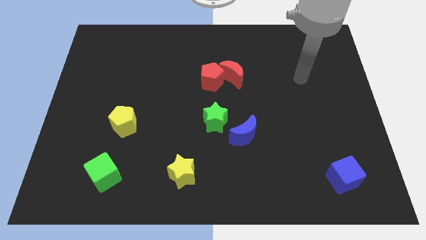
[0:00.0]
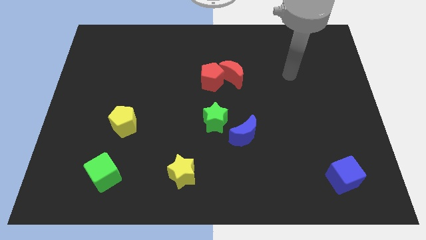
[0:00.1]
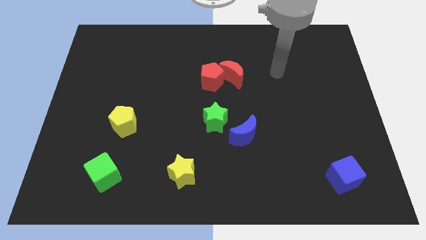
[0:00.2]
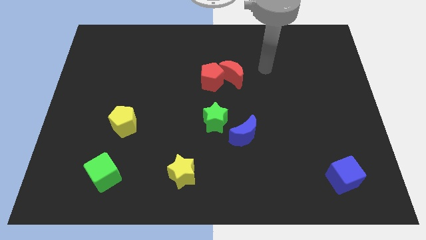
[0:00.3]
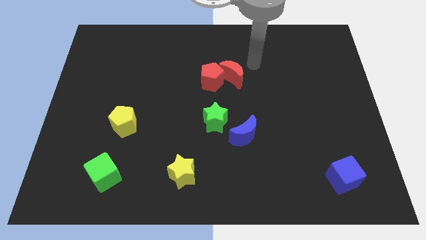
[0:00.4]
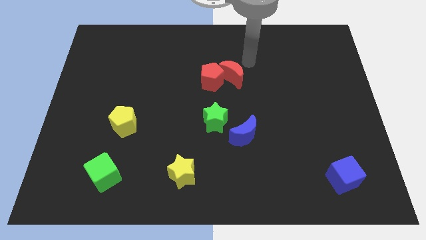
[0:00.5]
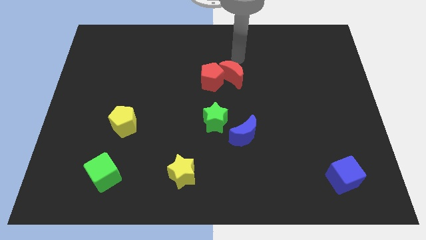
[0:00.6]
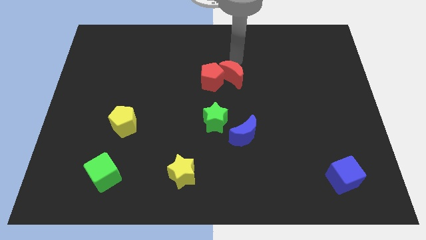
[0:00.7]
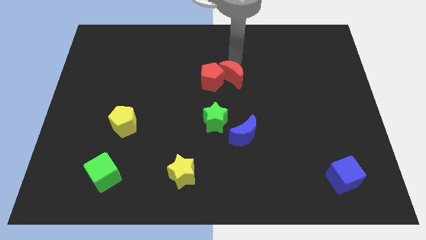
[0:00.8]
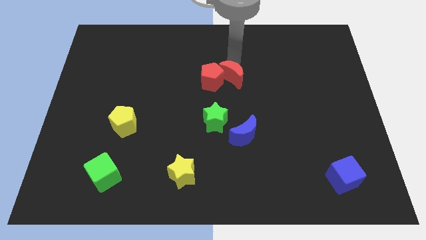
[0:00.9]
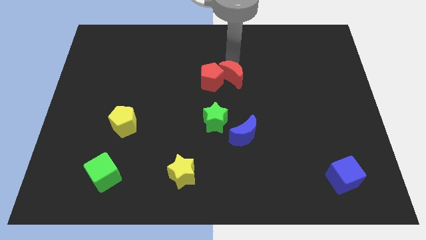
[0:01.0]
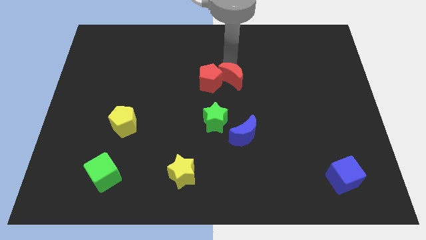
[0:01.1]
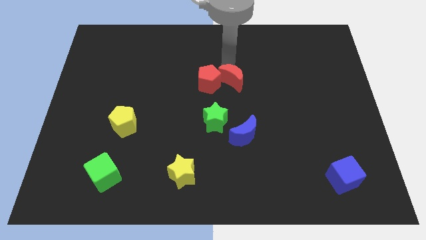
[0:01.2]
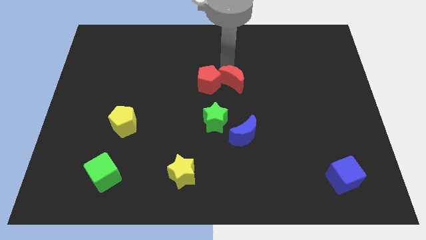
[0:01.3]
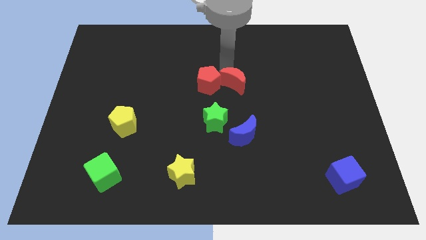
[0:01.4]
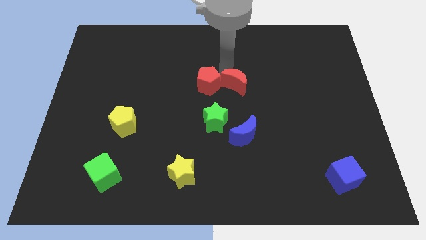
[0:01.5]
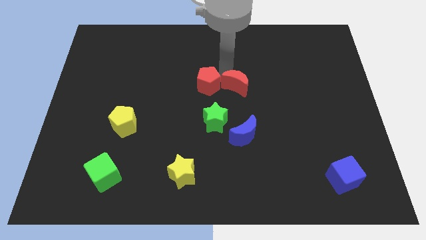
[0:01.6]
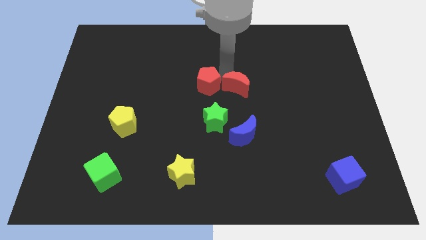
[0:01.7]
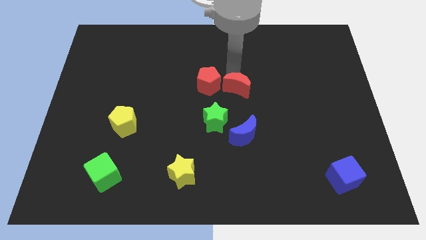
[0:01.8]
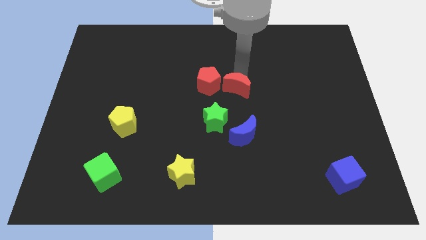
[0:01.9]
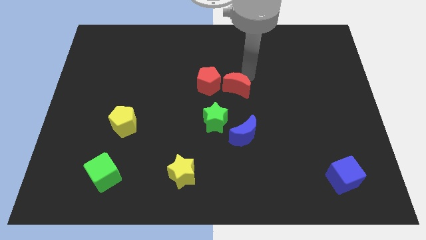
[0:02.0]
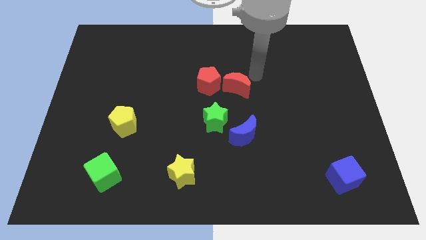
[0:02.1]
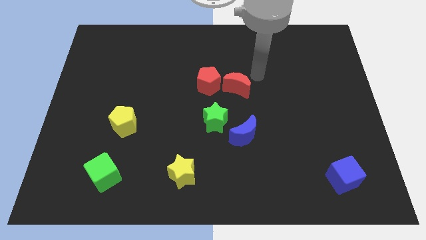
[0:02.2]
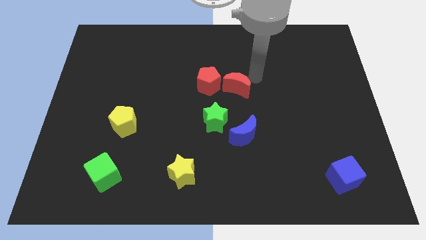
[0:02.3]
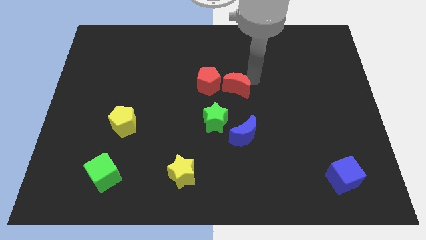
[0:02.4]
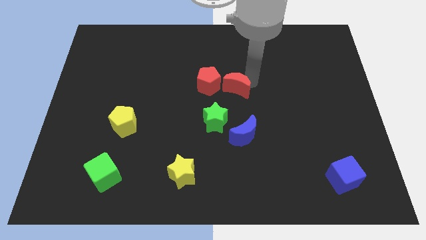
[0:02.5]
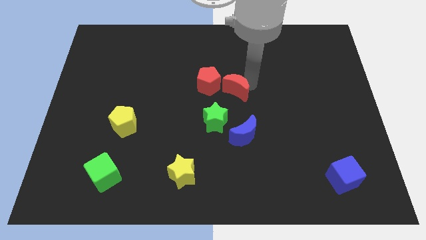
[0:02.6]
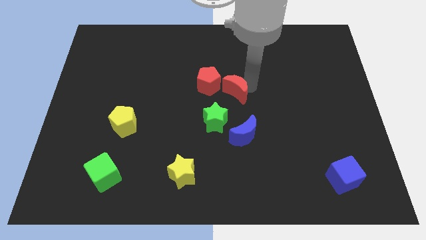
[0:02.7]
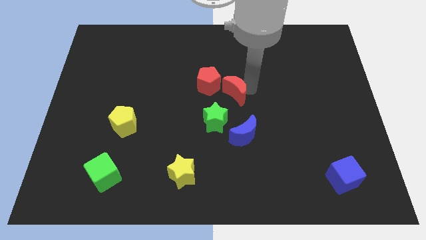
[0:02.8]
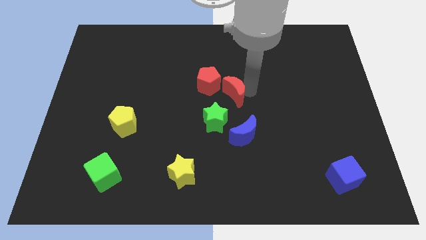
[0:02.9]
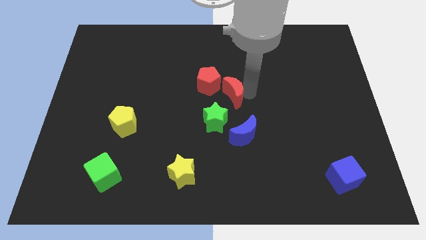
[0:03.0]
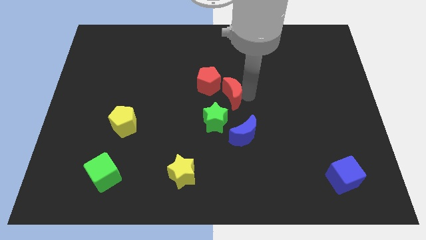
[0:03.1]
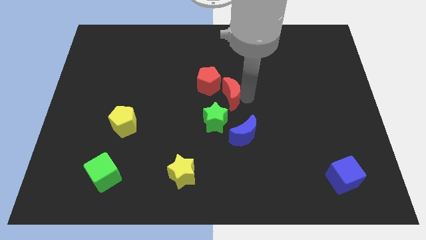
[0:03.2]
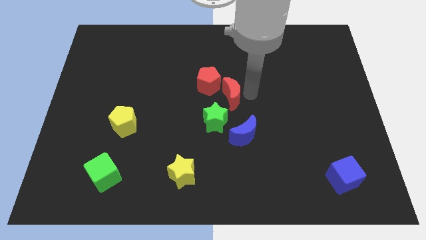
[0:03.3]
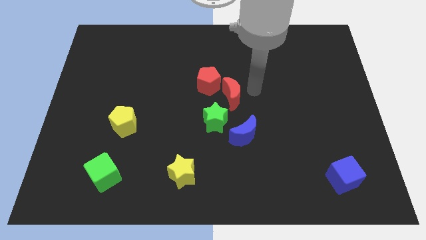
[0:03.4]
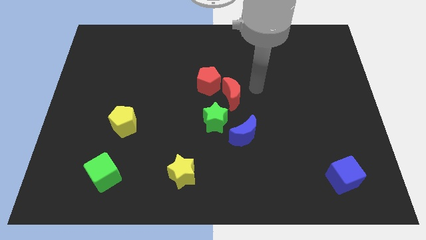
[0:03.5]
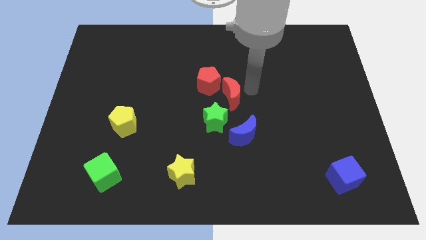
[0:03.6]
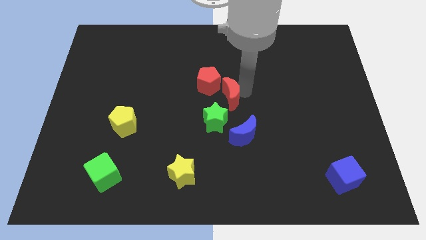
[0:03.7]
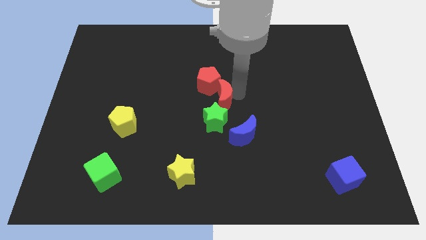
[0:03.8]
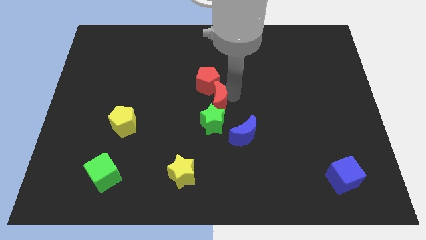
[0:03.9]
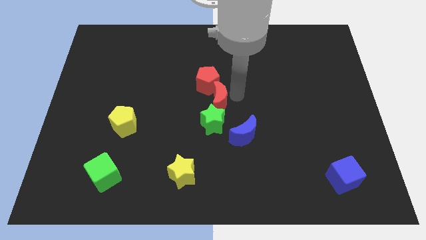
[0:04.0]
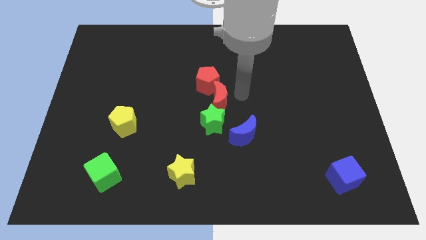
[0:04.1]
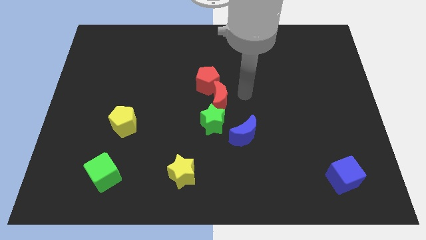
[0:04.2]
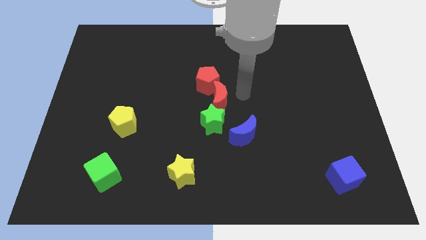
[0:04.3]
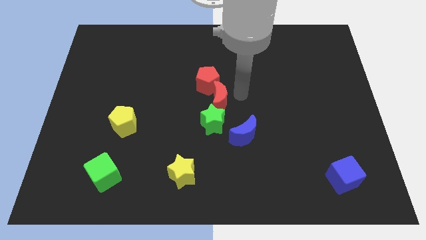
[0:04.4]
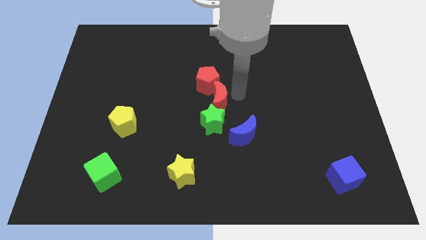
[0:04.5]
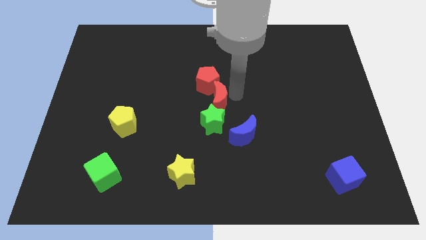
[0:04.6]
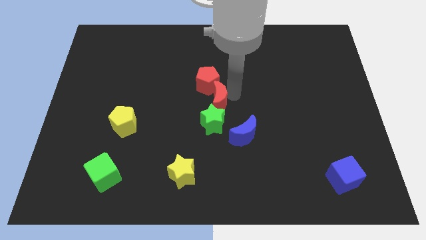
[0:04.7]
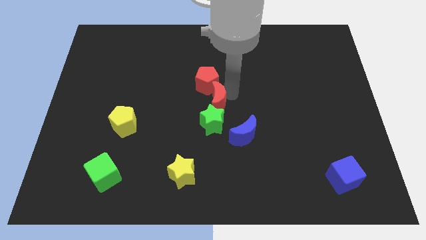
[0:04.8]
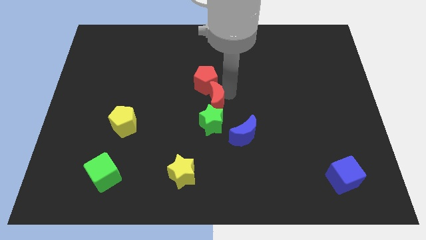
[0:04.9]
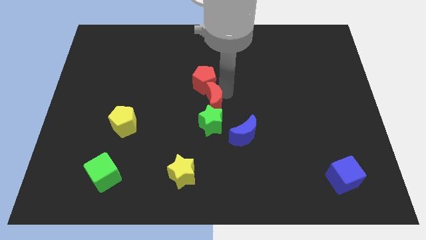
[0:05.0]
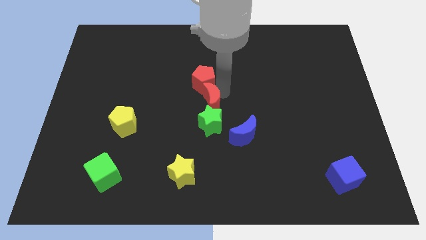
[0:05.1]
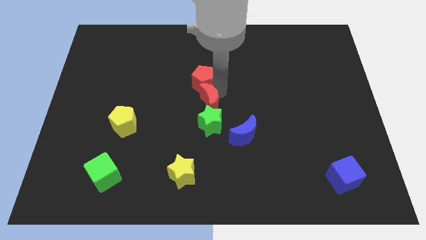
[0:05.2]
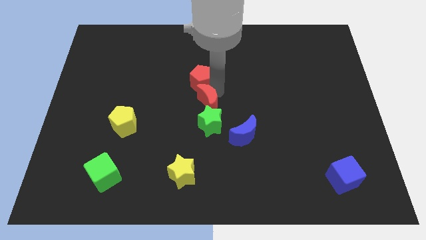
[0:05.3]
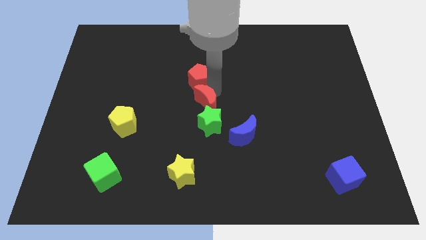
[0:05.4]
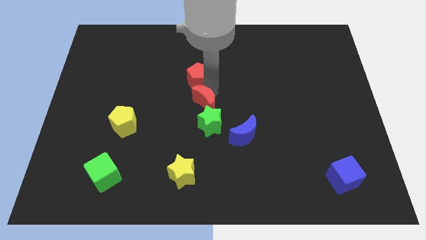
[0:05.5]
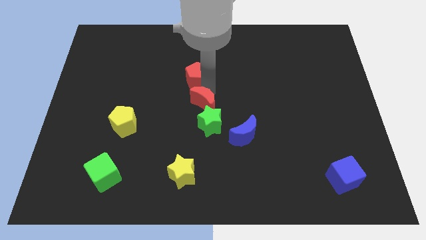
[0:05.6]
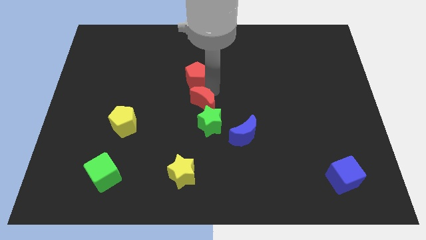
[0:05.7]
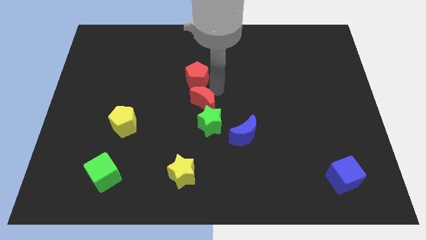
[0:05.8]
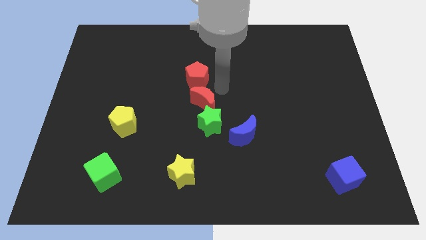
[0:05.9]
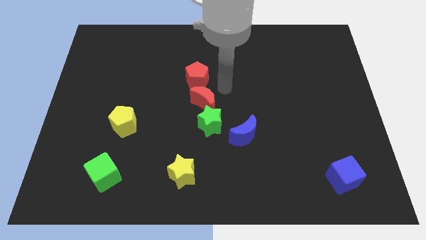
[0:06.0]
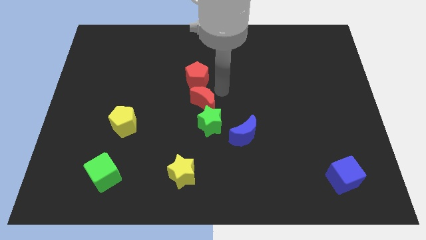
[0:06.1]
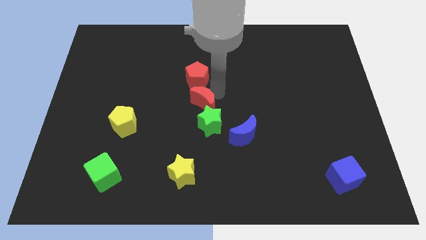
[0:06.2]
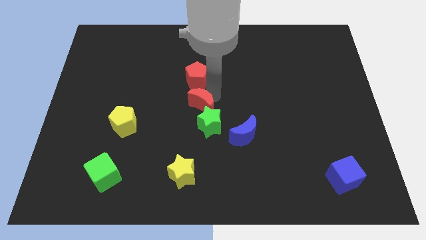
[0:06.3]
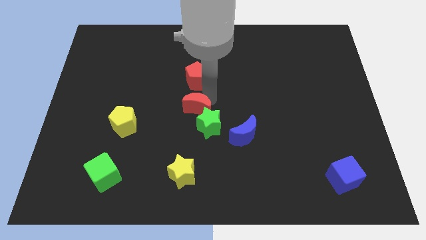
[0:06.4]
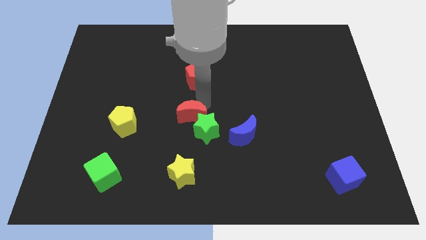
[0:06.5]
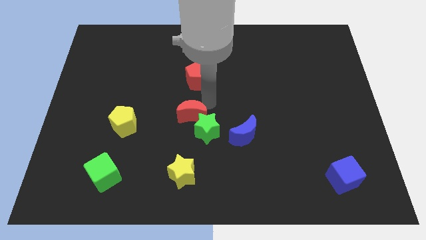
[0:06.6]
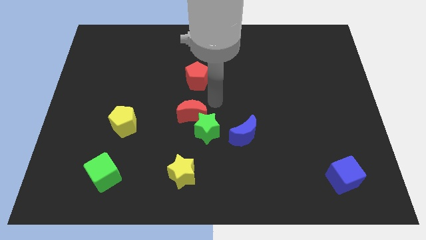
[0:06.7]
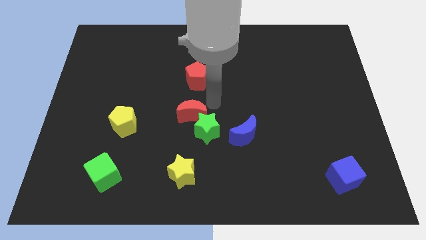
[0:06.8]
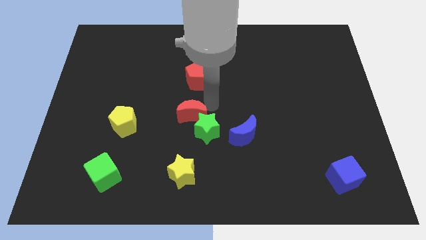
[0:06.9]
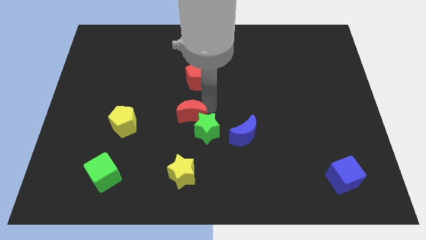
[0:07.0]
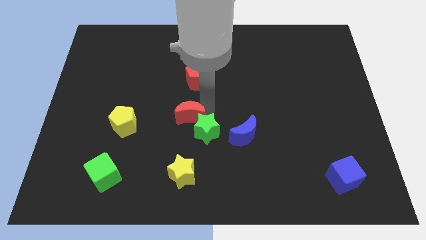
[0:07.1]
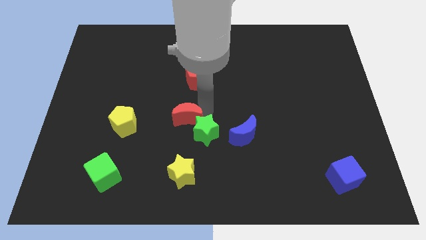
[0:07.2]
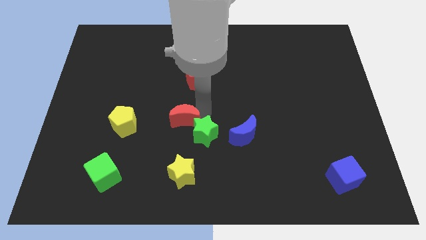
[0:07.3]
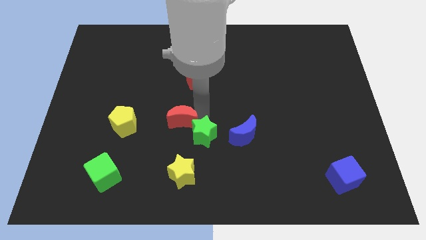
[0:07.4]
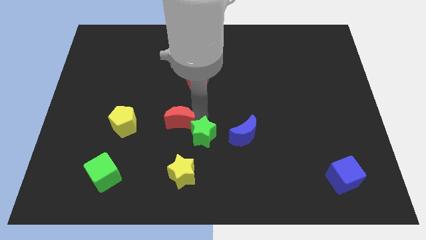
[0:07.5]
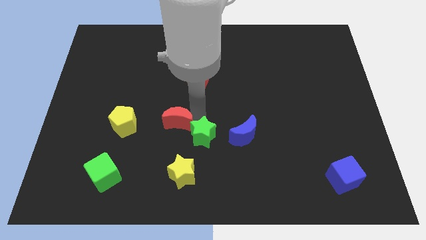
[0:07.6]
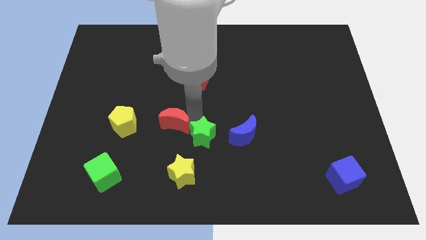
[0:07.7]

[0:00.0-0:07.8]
move the red moon down and left diagonally

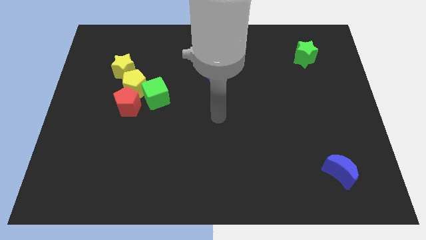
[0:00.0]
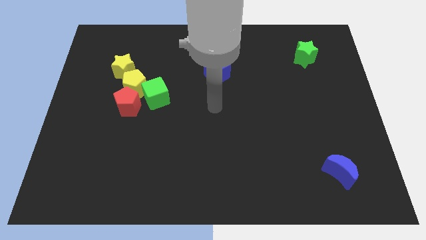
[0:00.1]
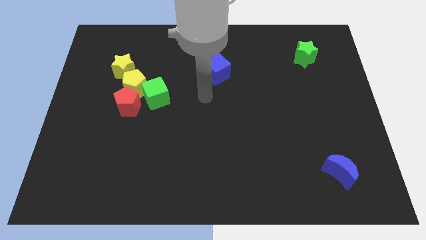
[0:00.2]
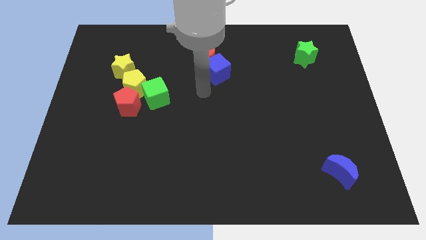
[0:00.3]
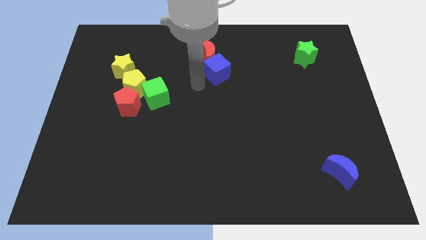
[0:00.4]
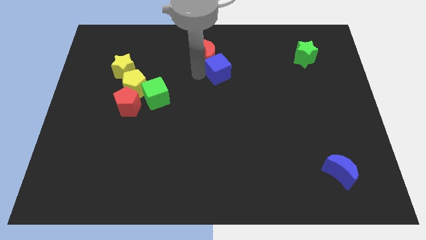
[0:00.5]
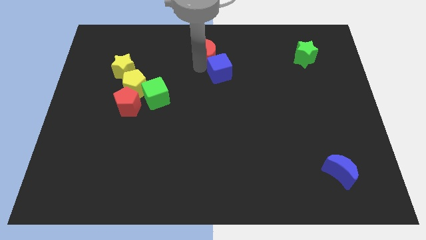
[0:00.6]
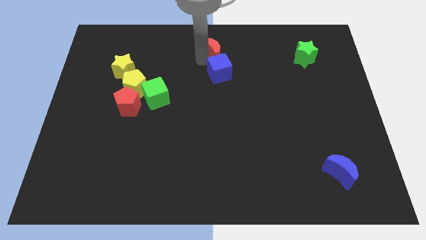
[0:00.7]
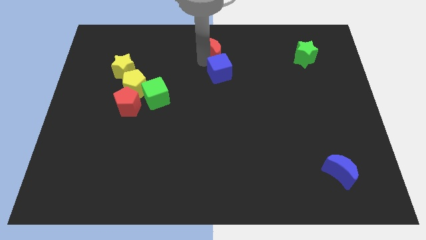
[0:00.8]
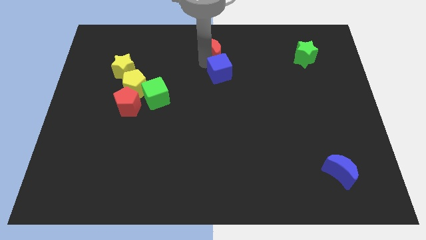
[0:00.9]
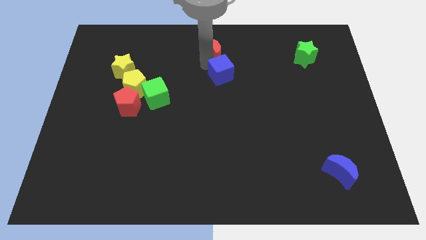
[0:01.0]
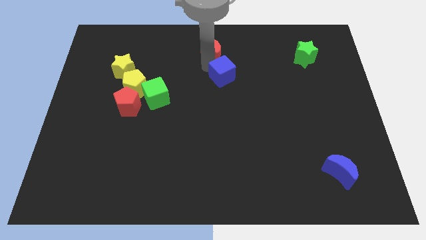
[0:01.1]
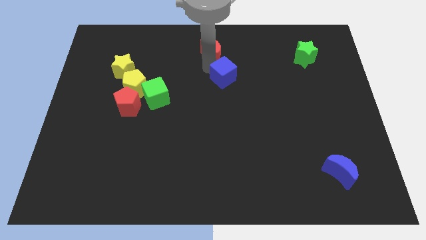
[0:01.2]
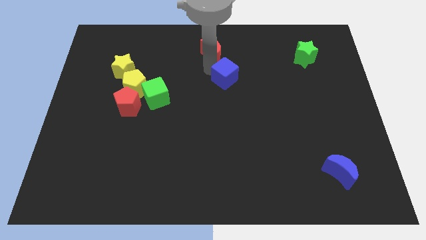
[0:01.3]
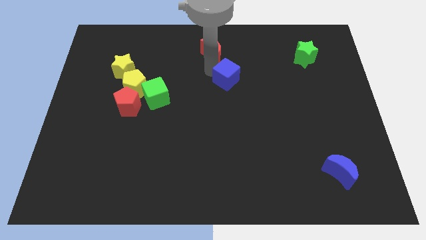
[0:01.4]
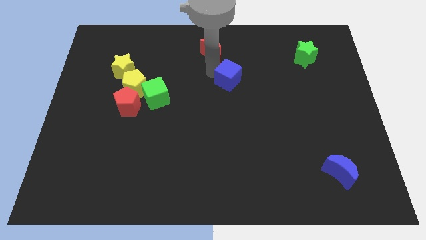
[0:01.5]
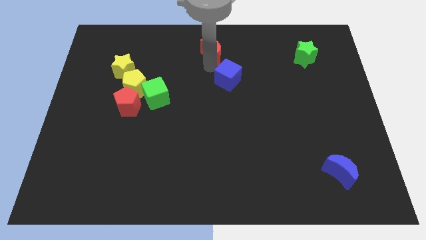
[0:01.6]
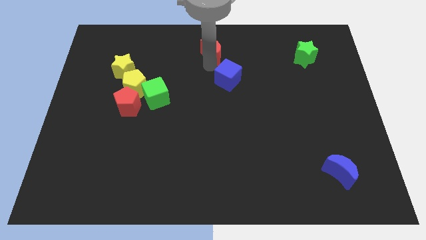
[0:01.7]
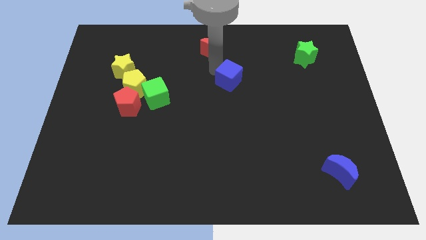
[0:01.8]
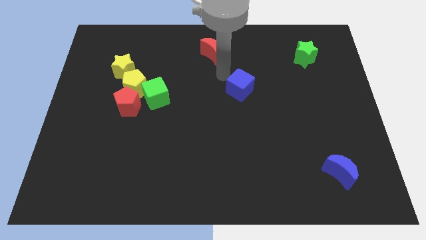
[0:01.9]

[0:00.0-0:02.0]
push the blue cube a little bit down and to the right
